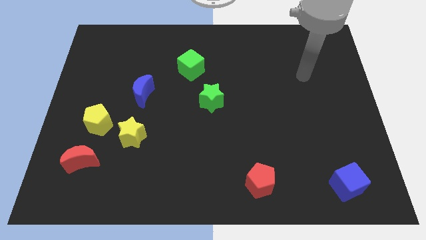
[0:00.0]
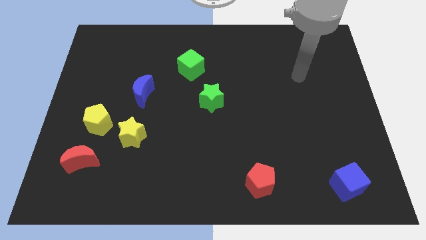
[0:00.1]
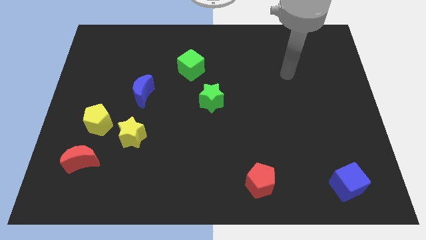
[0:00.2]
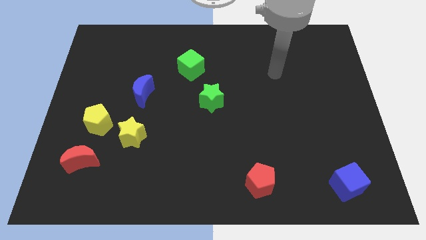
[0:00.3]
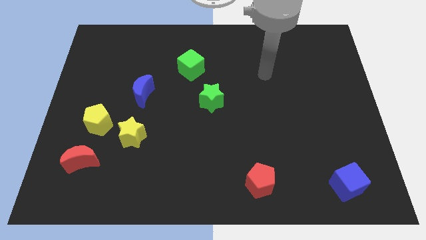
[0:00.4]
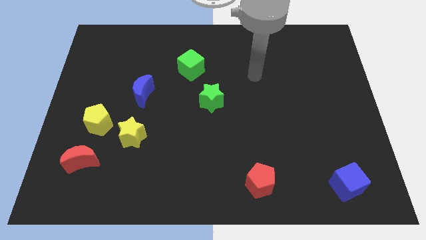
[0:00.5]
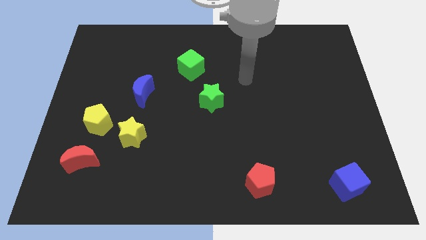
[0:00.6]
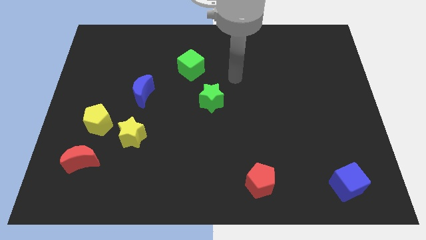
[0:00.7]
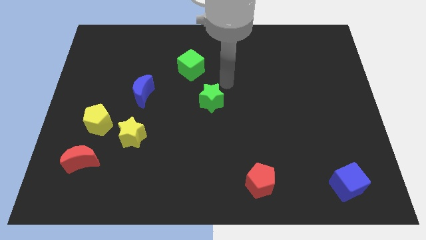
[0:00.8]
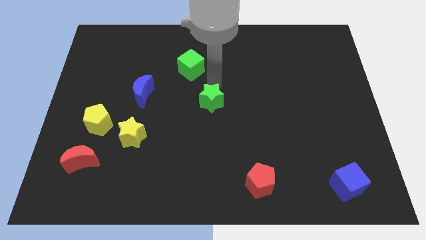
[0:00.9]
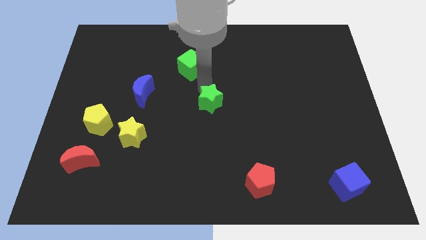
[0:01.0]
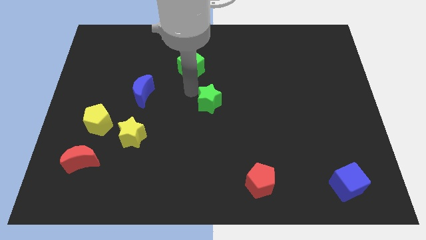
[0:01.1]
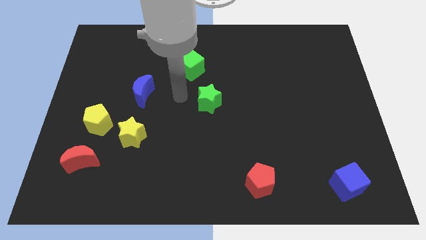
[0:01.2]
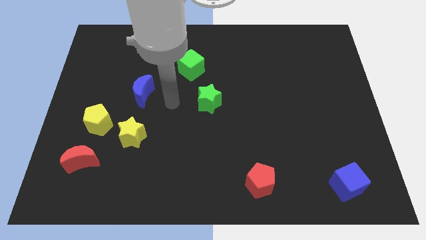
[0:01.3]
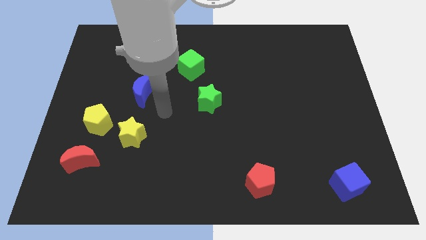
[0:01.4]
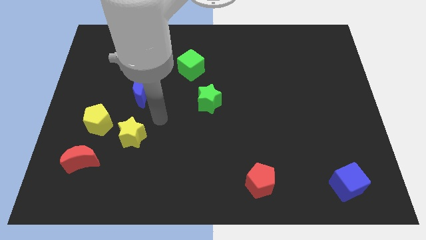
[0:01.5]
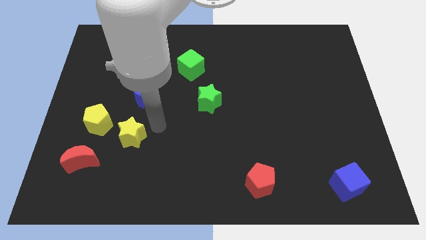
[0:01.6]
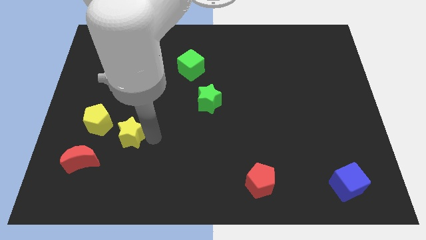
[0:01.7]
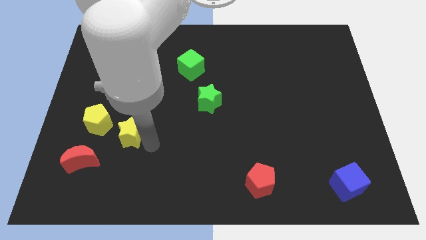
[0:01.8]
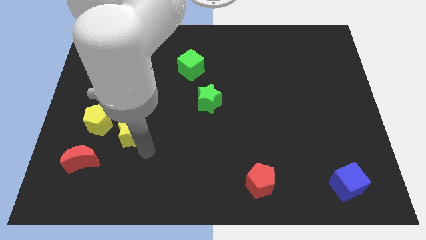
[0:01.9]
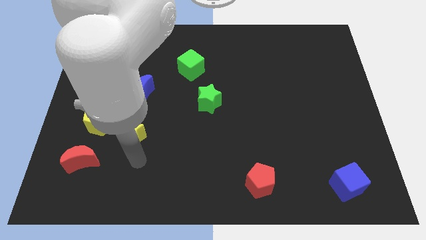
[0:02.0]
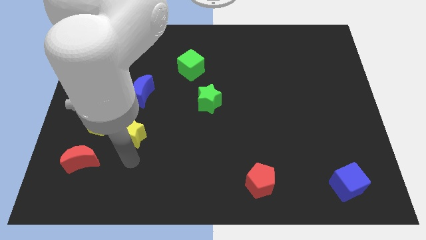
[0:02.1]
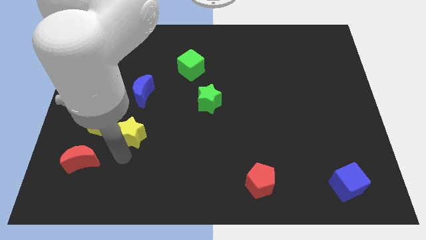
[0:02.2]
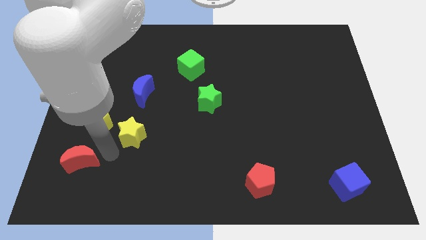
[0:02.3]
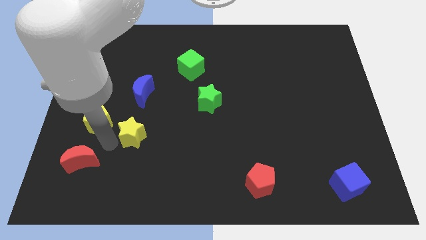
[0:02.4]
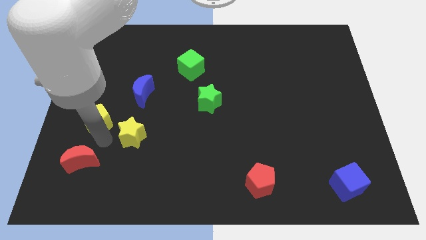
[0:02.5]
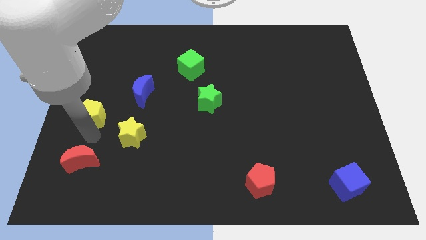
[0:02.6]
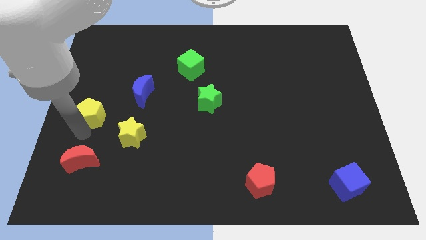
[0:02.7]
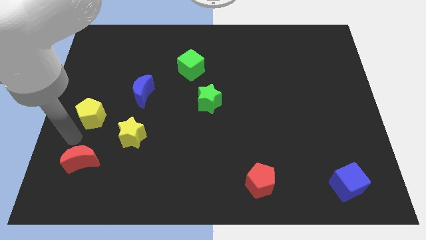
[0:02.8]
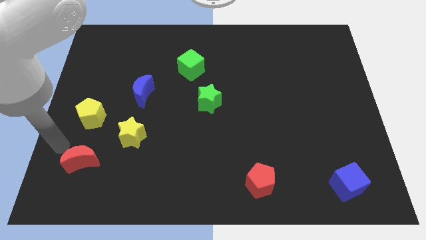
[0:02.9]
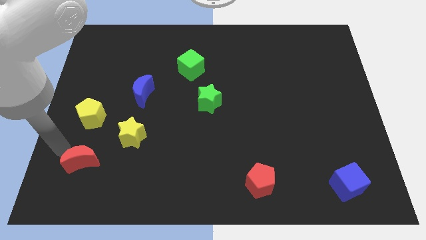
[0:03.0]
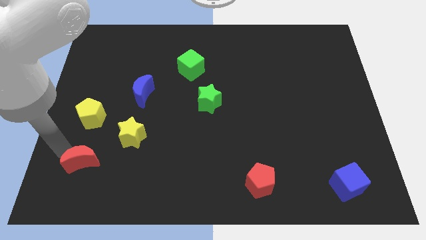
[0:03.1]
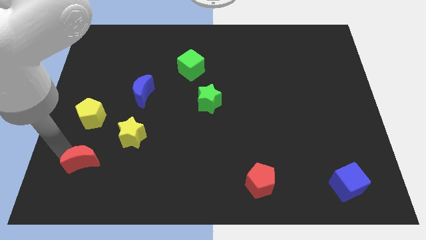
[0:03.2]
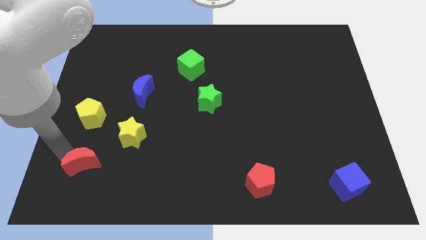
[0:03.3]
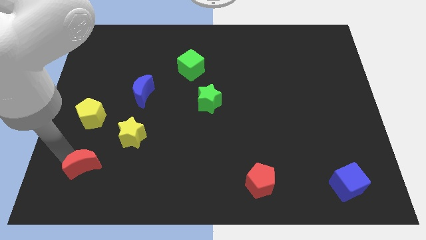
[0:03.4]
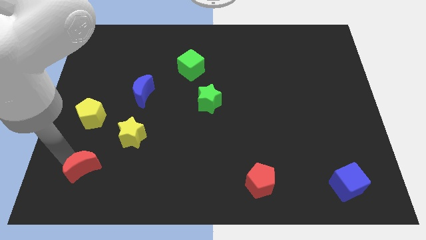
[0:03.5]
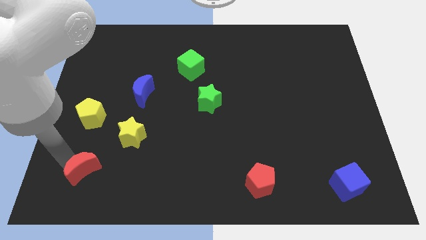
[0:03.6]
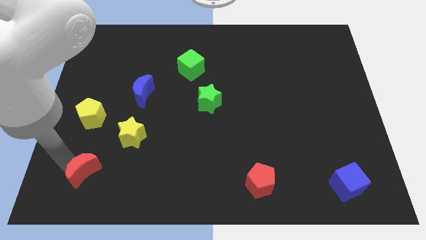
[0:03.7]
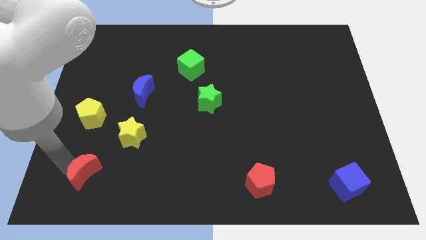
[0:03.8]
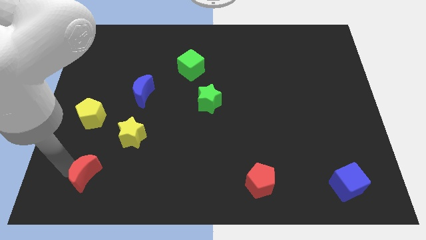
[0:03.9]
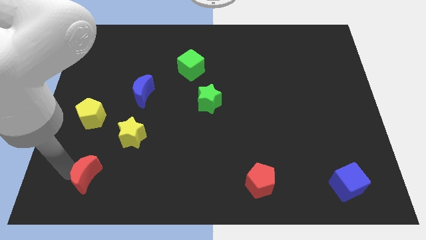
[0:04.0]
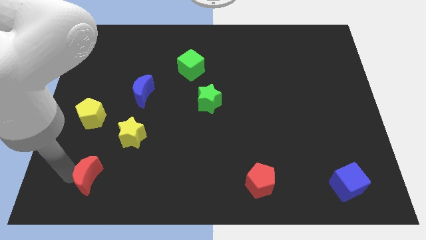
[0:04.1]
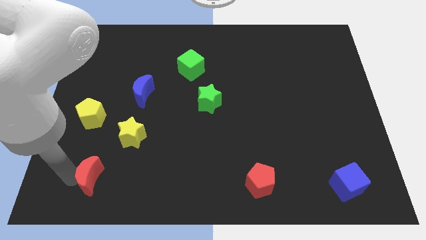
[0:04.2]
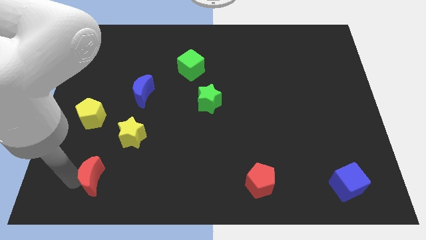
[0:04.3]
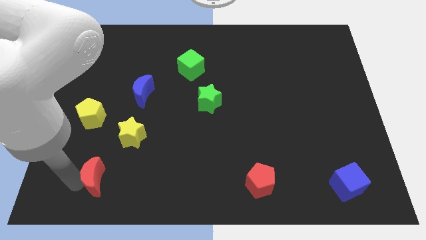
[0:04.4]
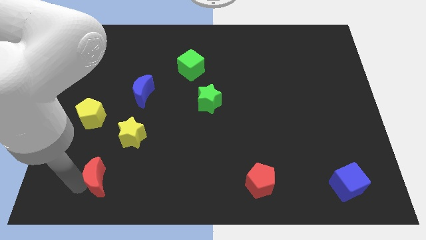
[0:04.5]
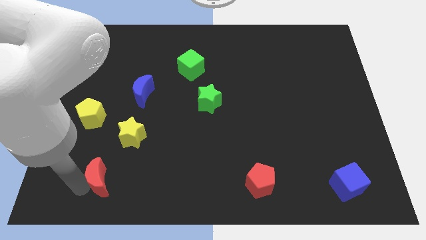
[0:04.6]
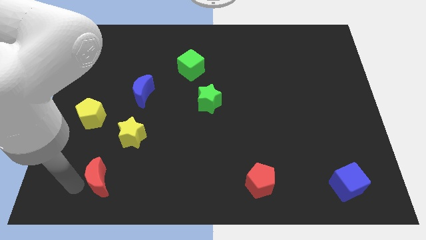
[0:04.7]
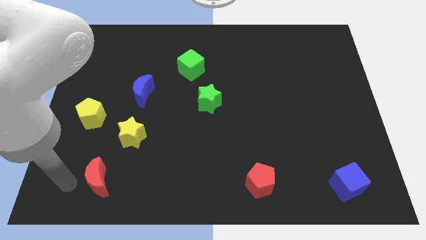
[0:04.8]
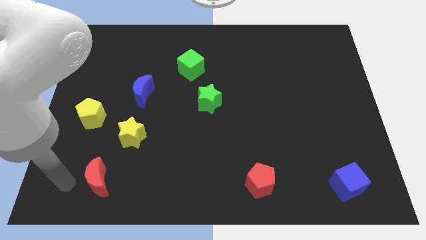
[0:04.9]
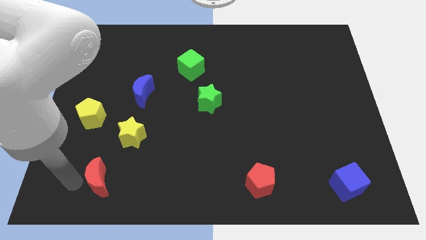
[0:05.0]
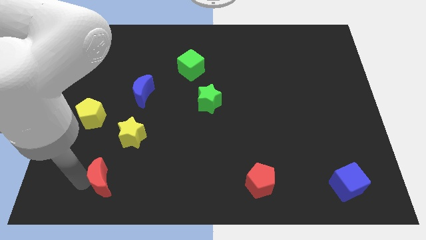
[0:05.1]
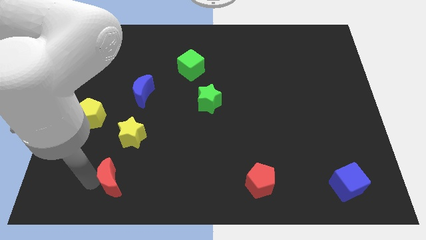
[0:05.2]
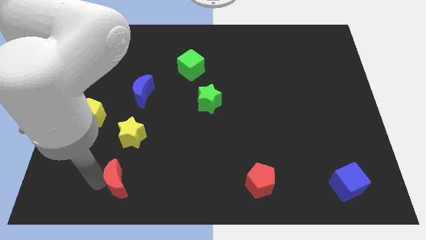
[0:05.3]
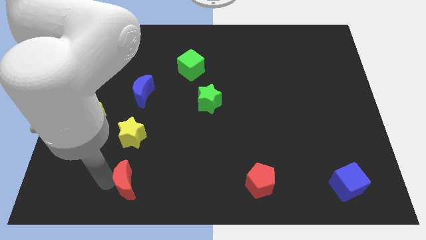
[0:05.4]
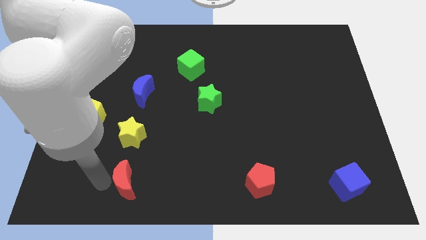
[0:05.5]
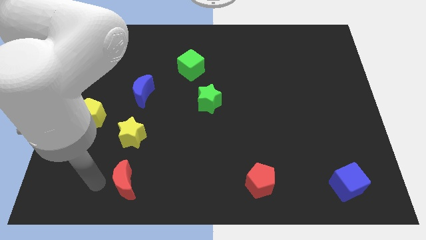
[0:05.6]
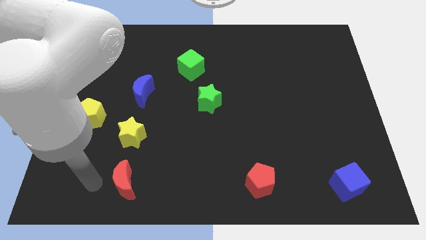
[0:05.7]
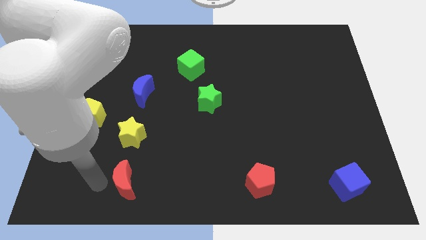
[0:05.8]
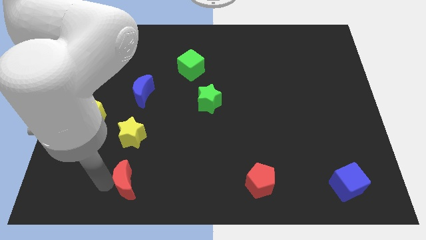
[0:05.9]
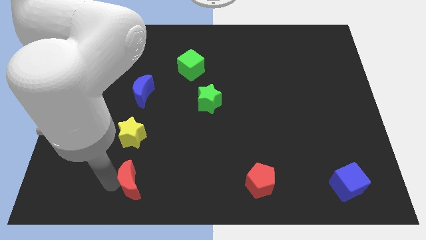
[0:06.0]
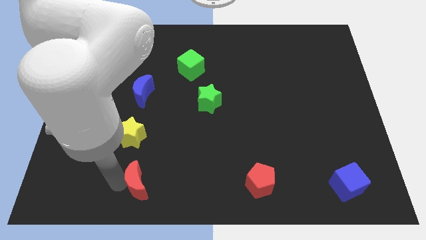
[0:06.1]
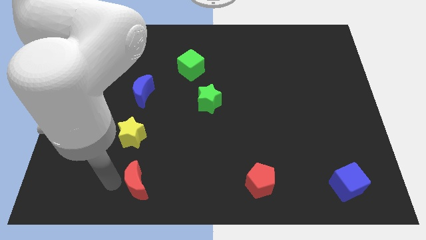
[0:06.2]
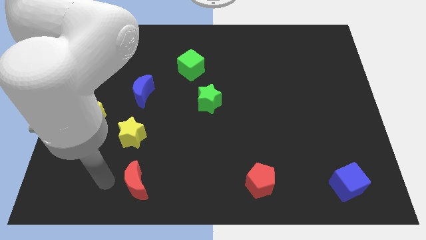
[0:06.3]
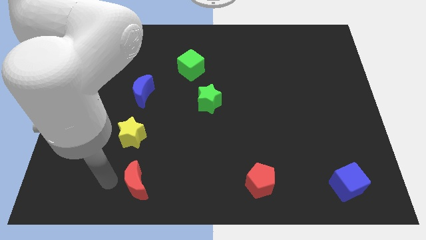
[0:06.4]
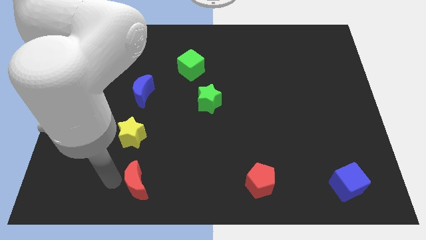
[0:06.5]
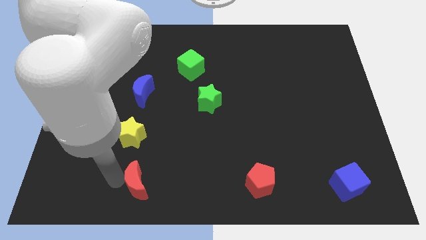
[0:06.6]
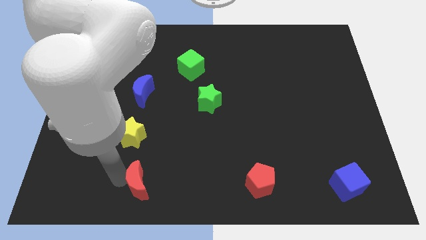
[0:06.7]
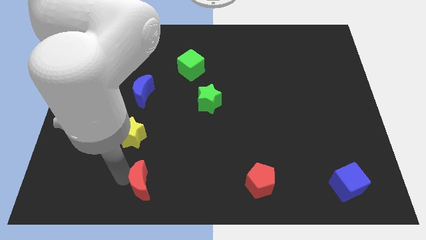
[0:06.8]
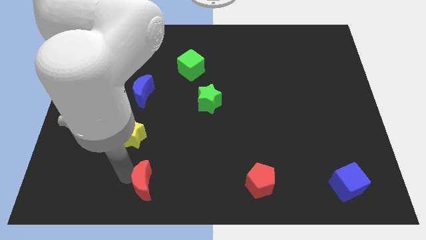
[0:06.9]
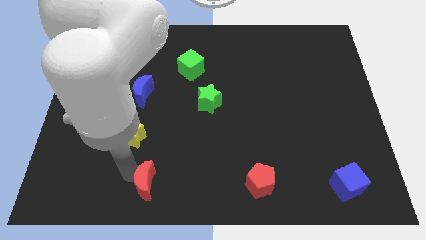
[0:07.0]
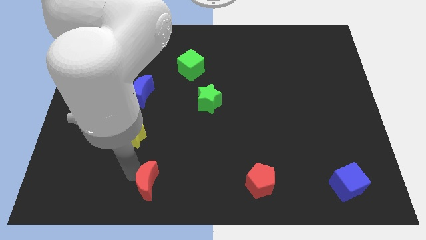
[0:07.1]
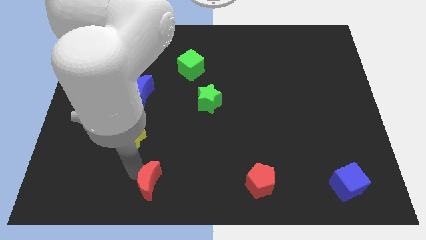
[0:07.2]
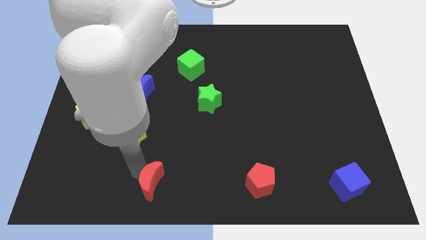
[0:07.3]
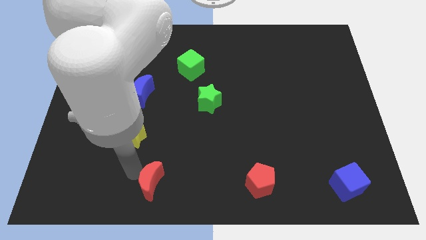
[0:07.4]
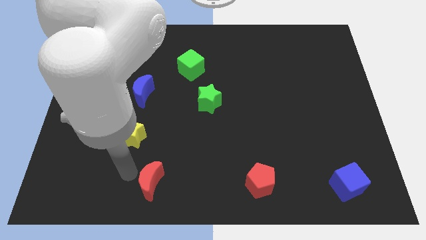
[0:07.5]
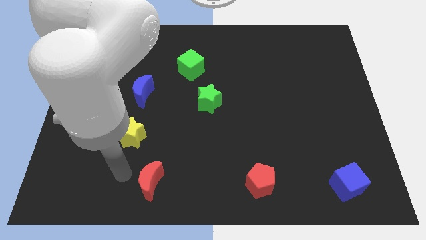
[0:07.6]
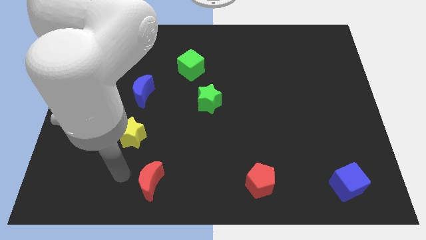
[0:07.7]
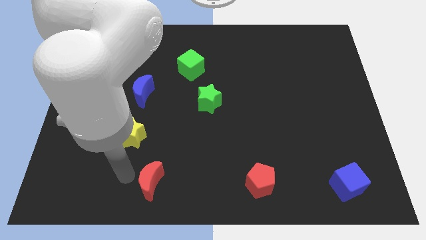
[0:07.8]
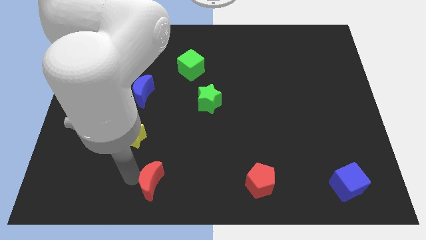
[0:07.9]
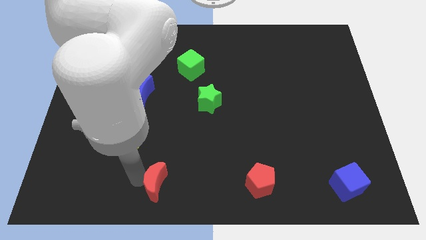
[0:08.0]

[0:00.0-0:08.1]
move the red moon to the bottom side
